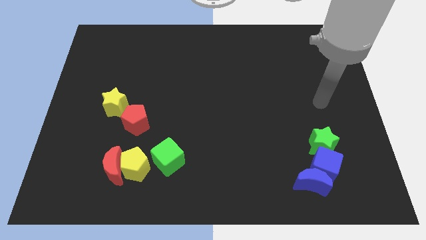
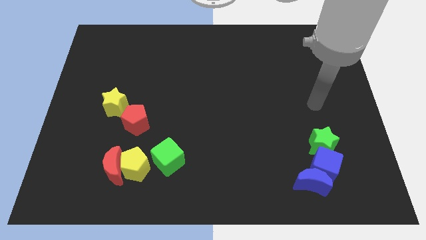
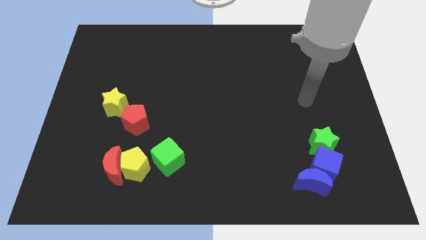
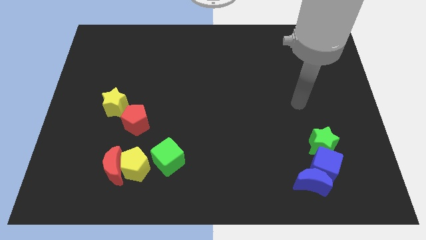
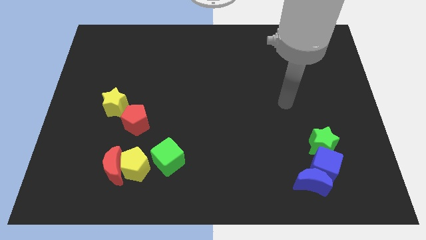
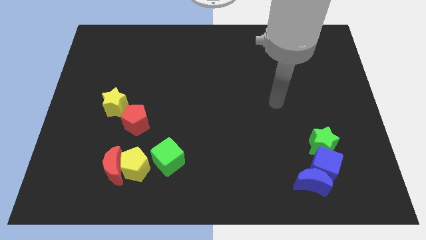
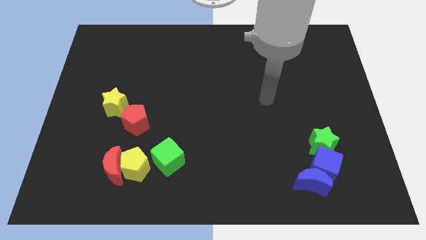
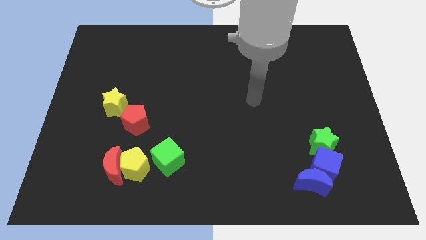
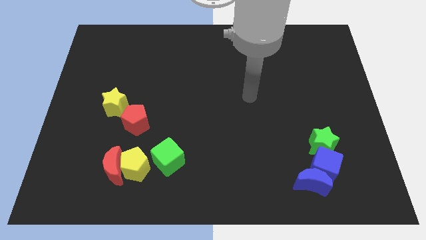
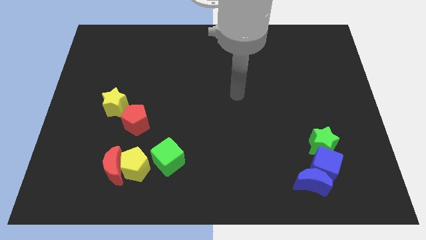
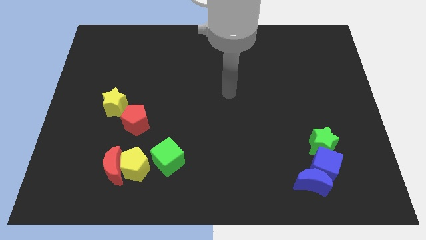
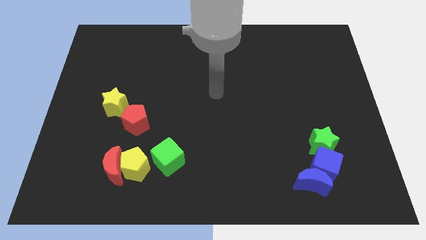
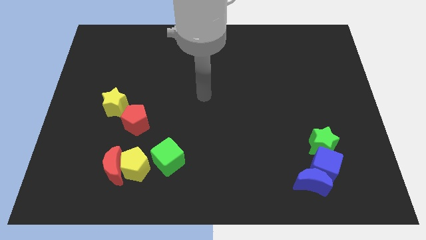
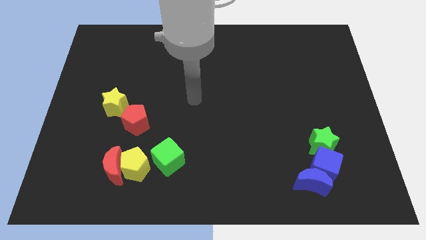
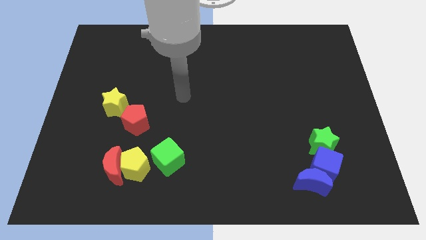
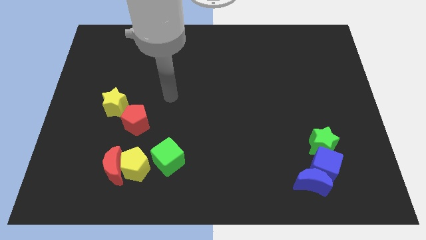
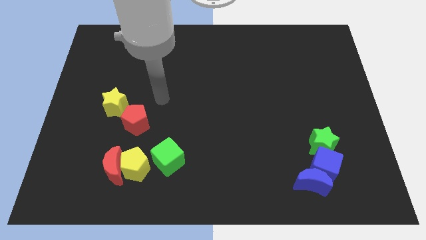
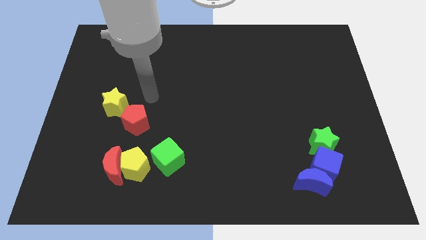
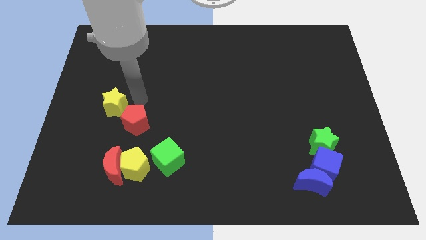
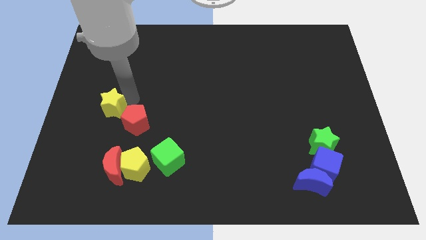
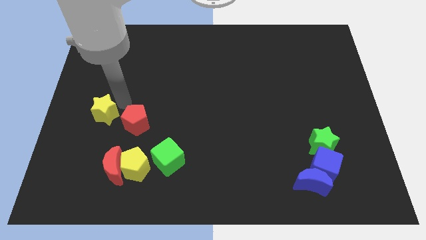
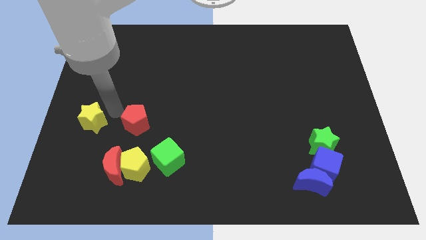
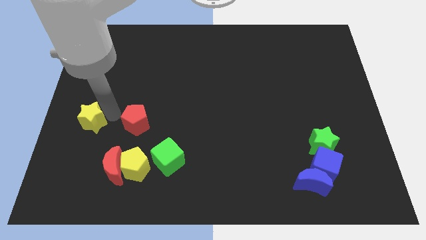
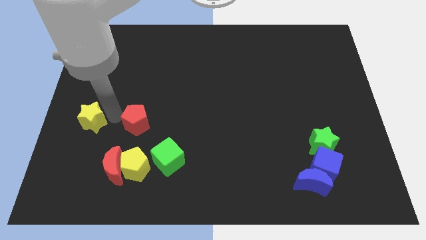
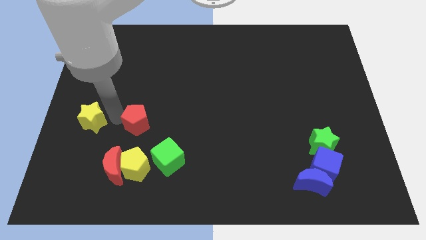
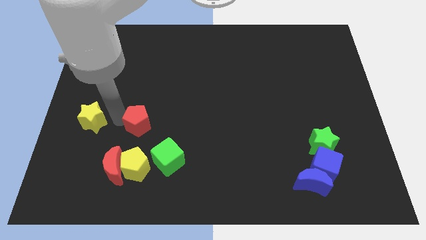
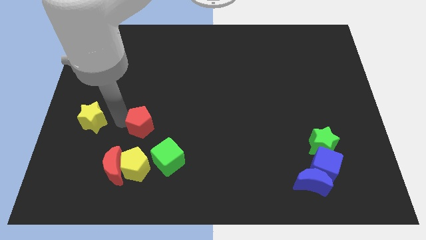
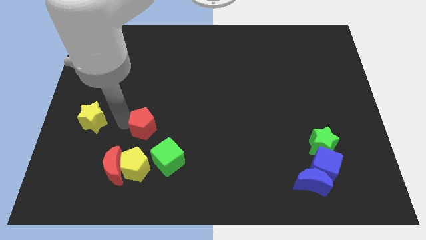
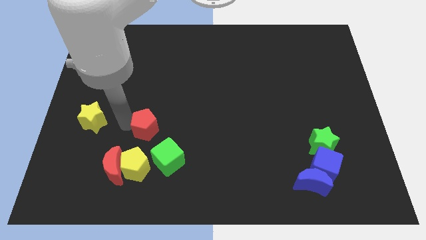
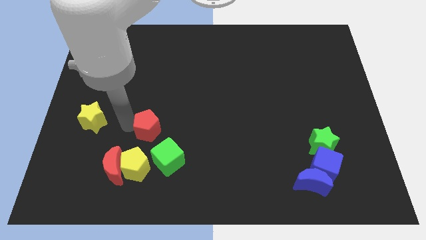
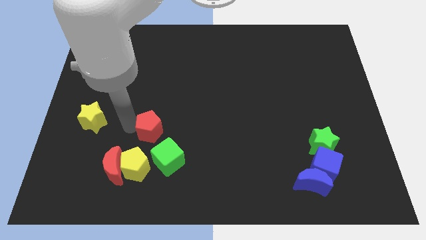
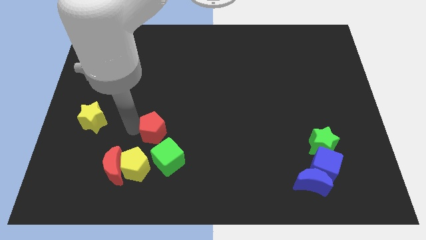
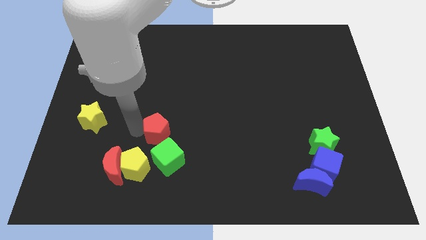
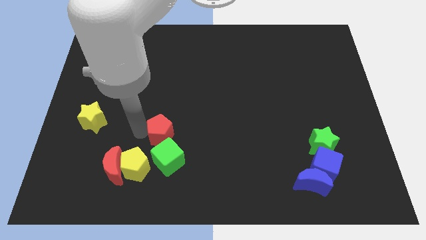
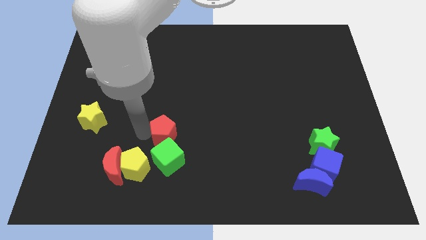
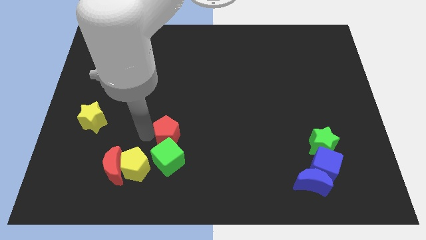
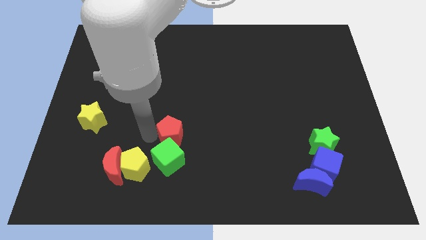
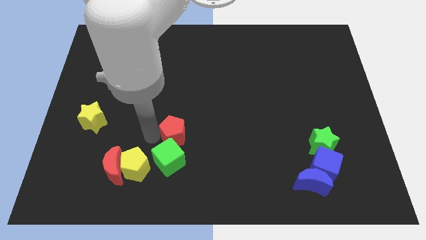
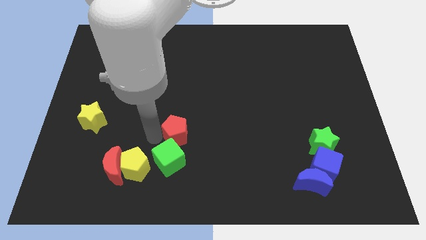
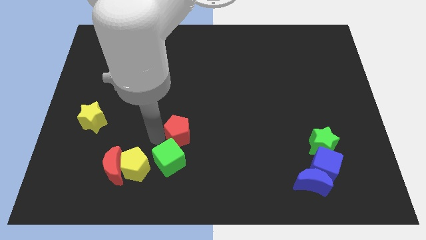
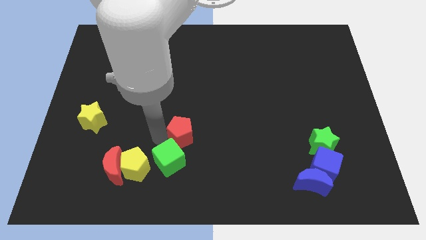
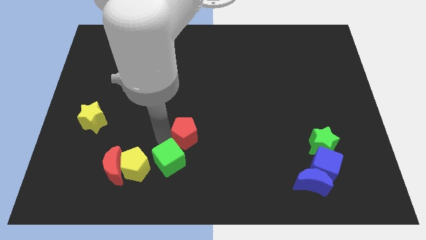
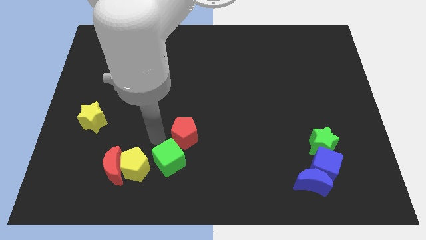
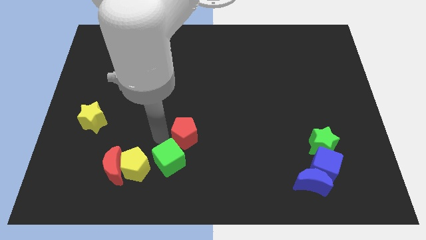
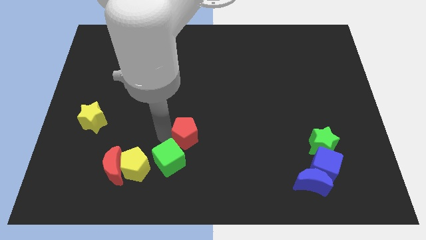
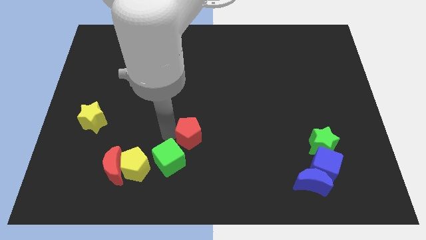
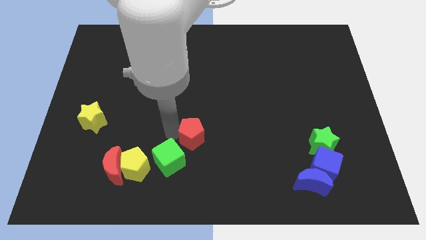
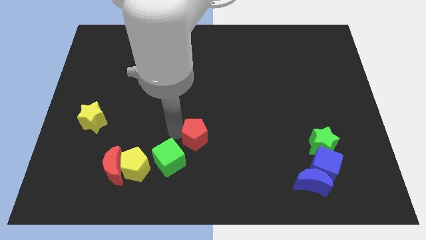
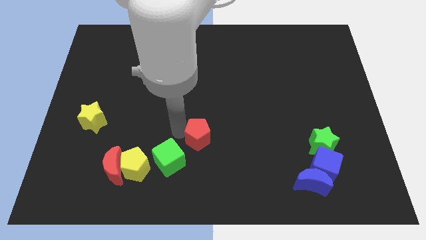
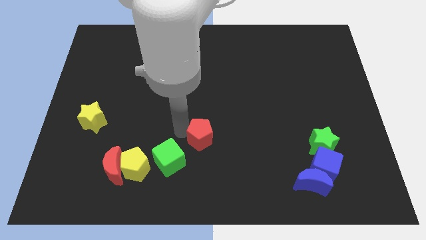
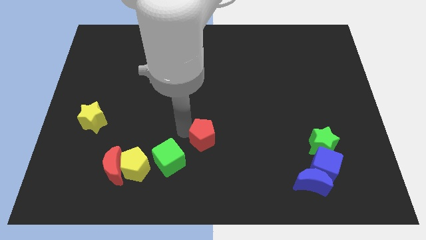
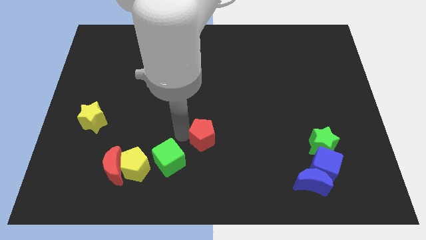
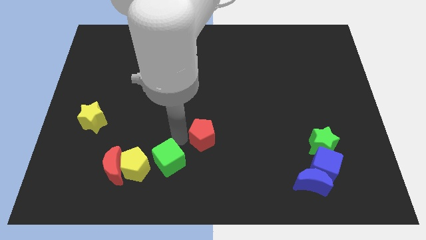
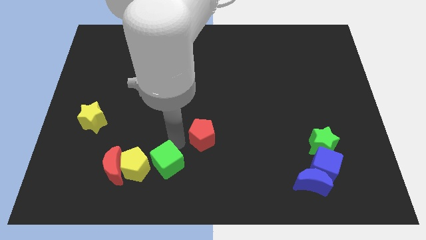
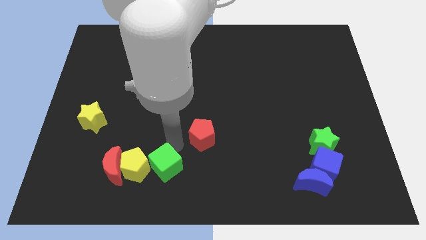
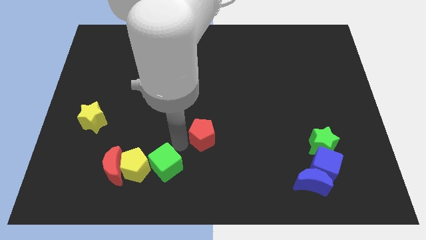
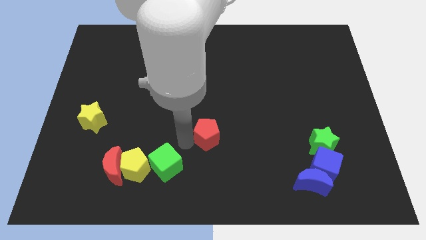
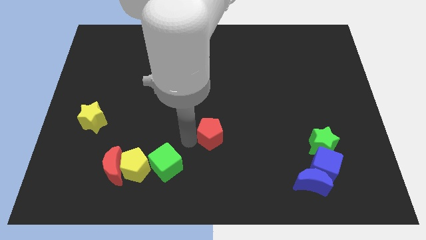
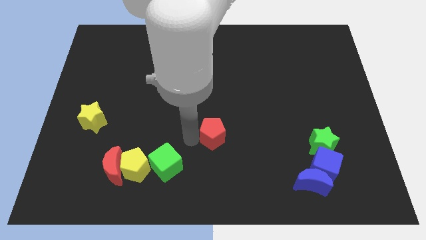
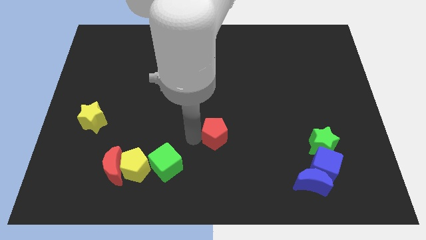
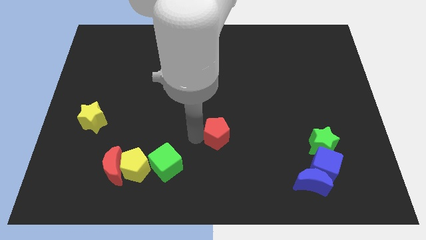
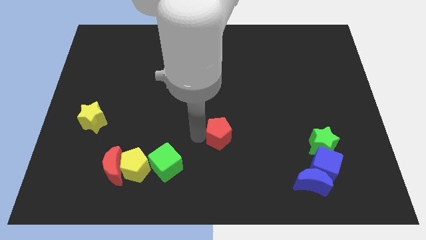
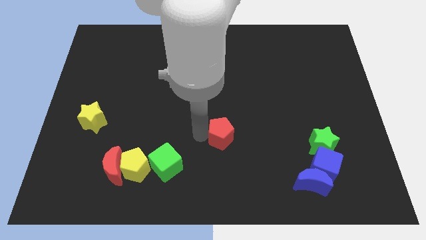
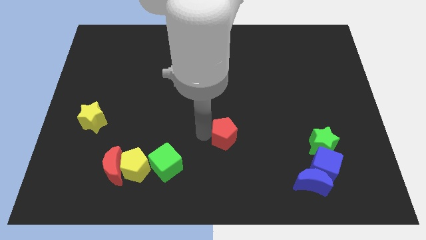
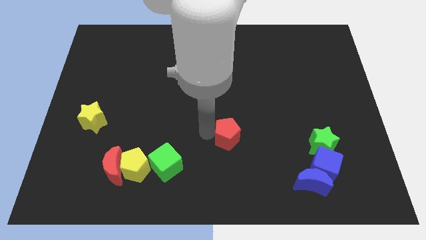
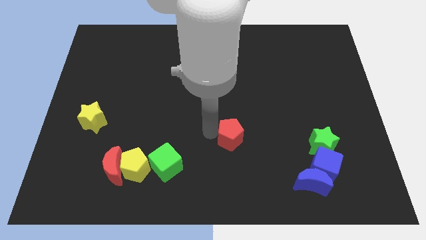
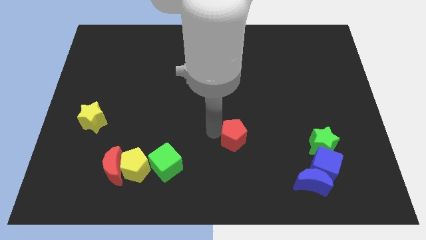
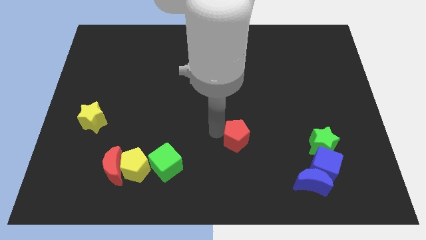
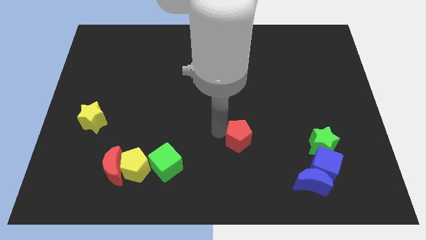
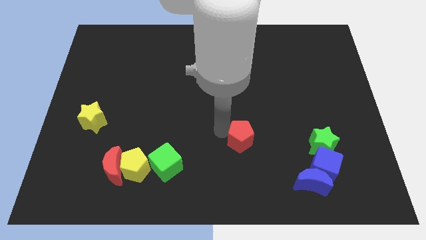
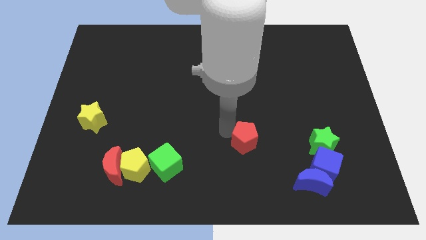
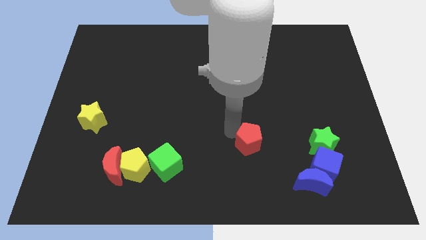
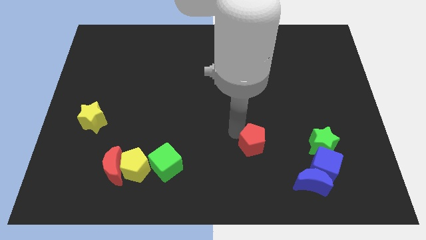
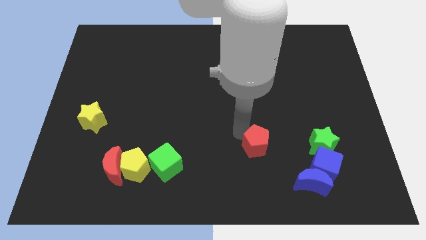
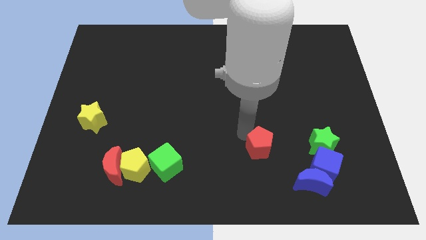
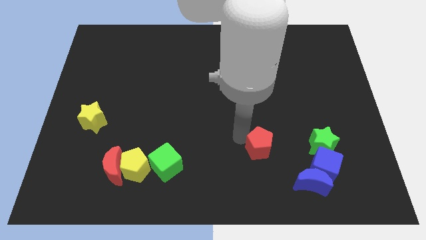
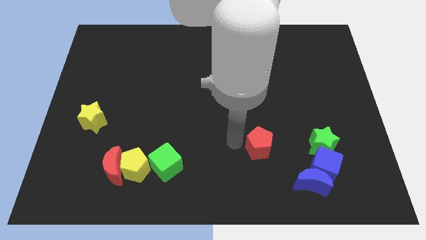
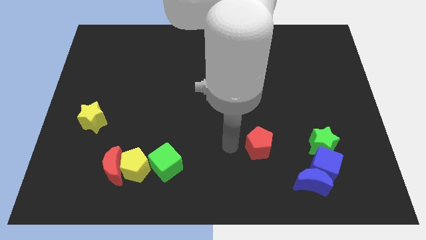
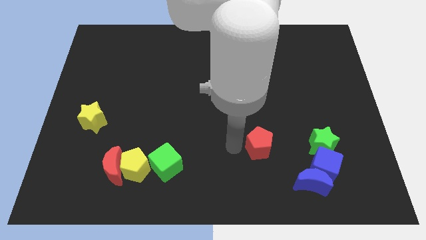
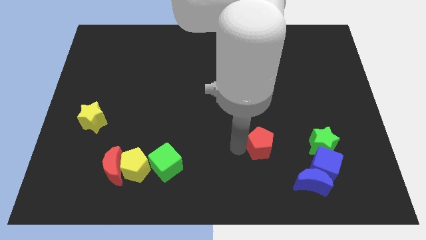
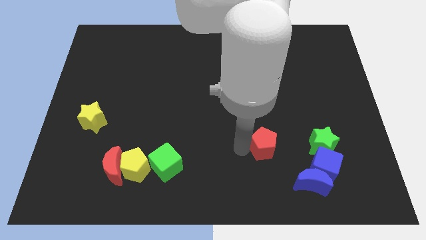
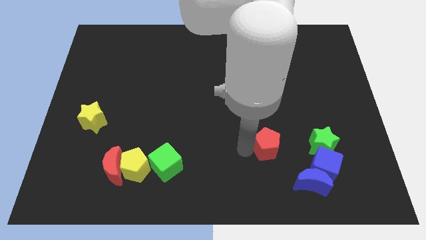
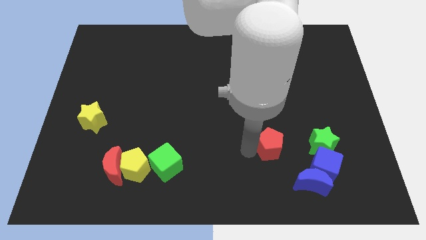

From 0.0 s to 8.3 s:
slide the red pentagon diagonally up and to the left of the blue cube
